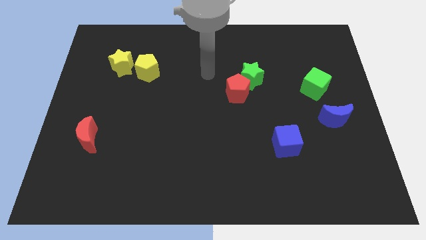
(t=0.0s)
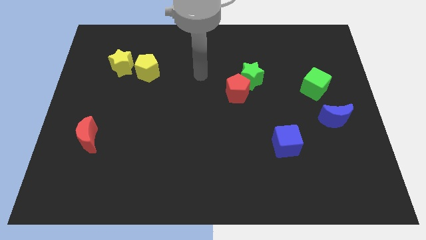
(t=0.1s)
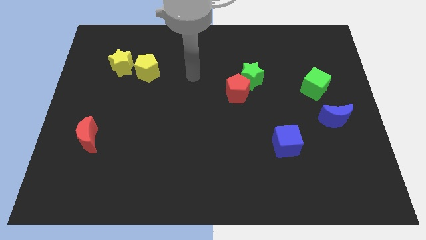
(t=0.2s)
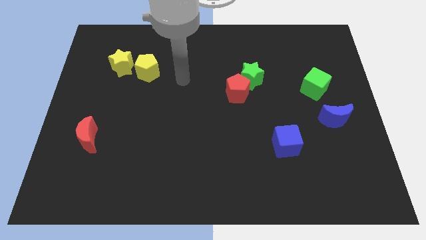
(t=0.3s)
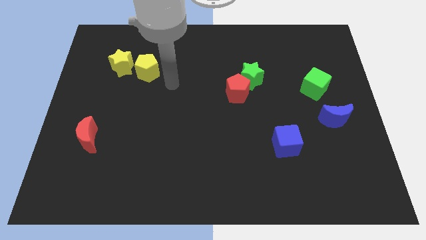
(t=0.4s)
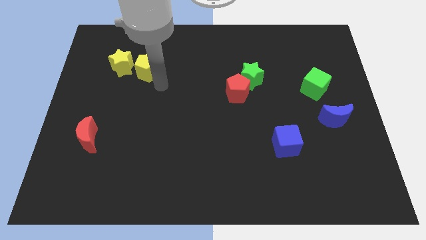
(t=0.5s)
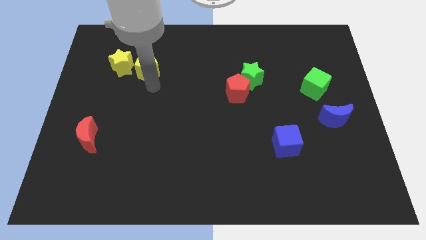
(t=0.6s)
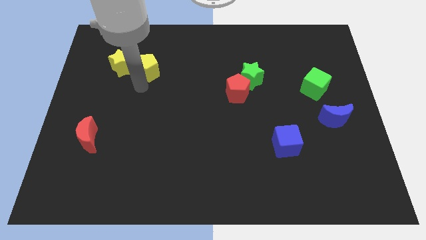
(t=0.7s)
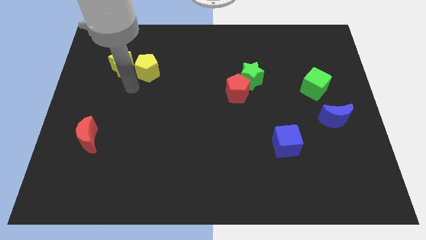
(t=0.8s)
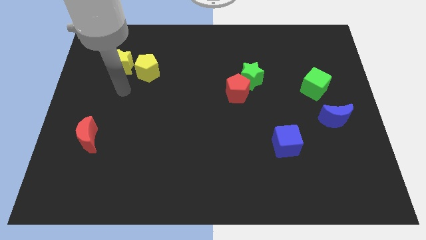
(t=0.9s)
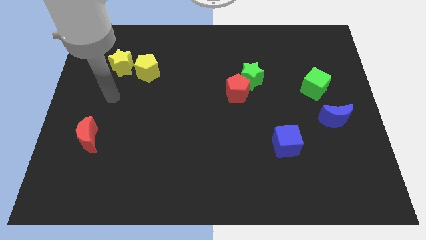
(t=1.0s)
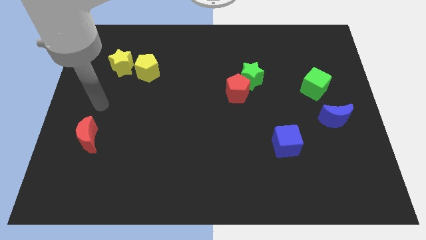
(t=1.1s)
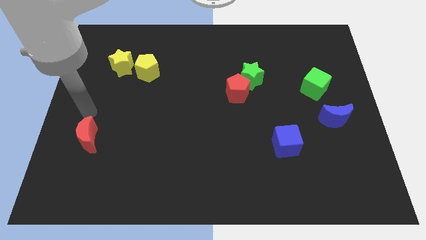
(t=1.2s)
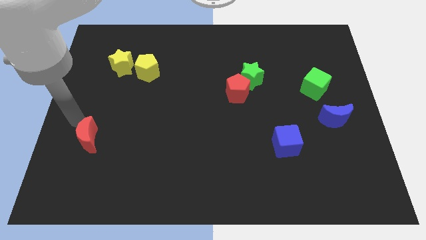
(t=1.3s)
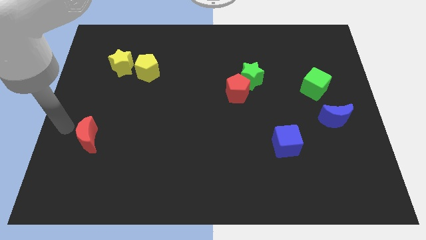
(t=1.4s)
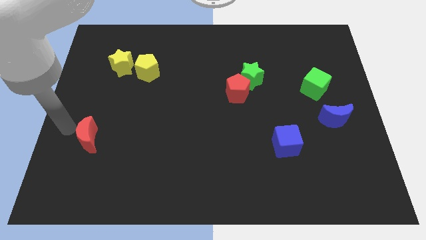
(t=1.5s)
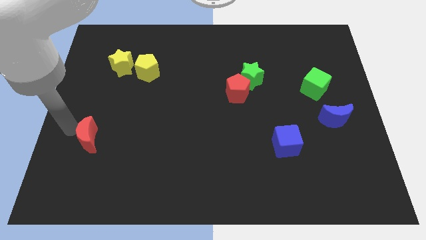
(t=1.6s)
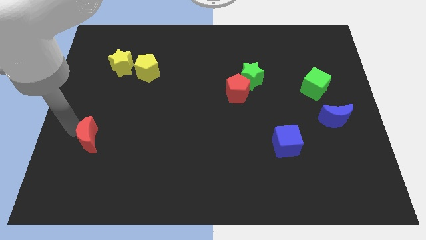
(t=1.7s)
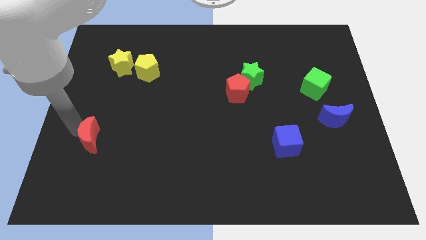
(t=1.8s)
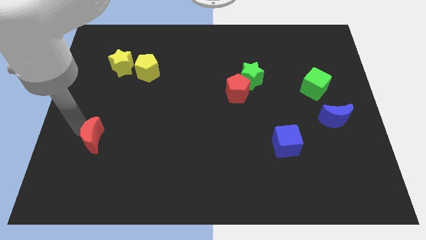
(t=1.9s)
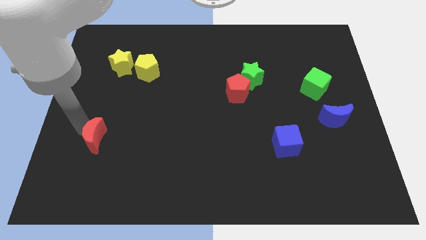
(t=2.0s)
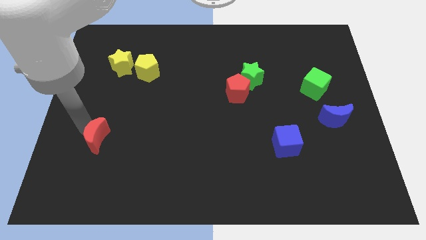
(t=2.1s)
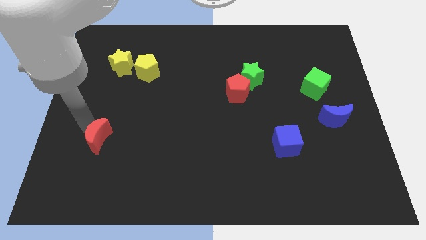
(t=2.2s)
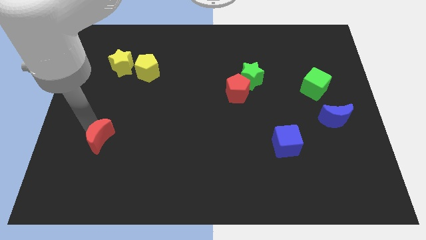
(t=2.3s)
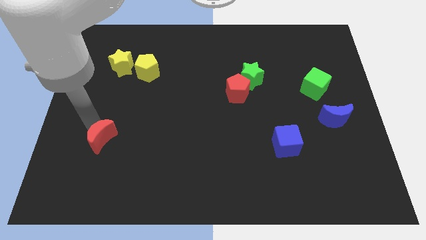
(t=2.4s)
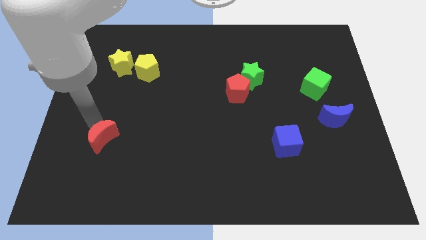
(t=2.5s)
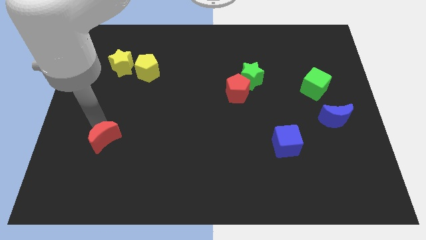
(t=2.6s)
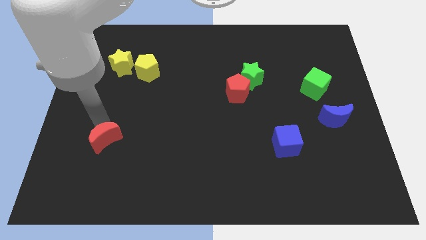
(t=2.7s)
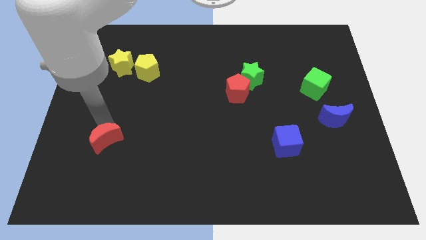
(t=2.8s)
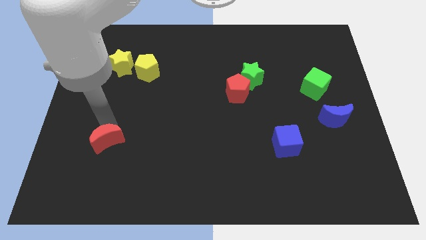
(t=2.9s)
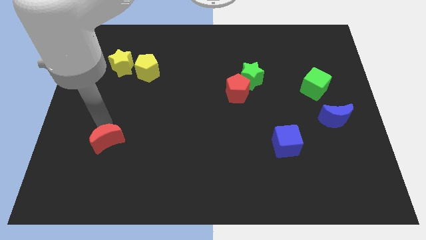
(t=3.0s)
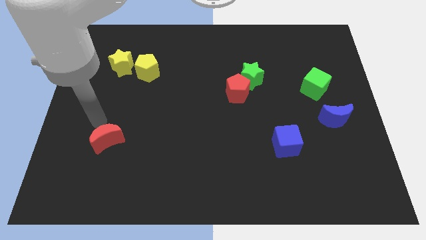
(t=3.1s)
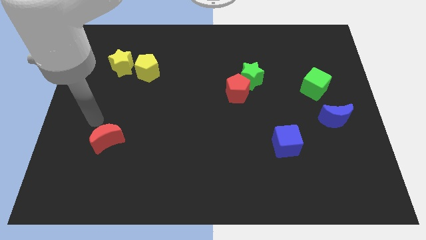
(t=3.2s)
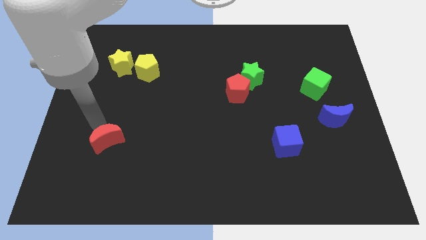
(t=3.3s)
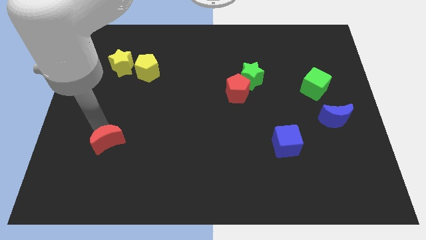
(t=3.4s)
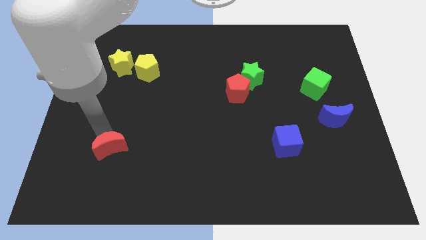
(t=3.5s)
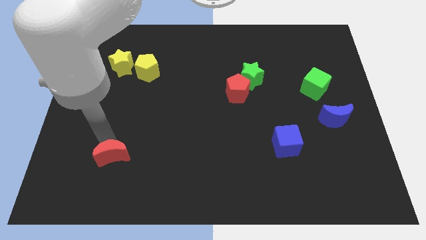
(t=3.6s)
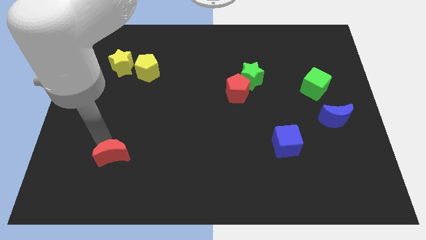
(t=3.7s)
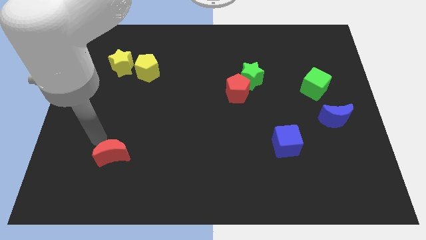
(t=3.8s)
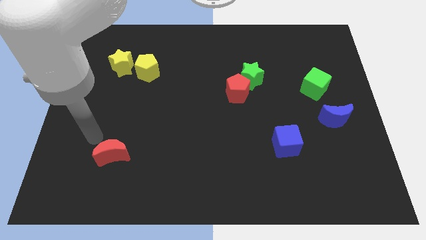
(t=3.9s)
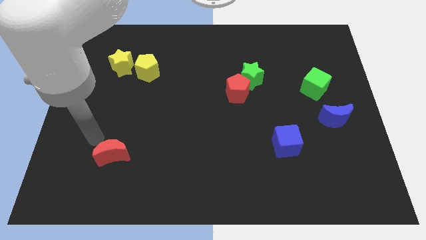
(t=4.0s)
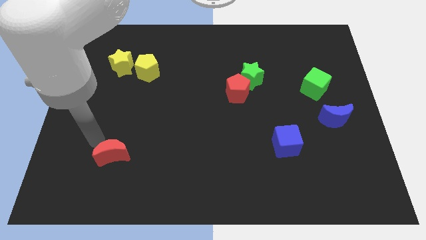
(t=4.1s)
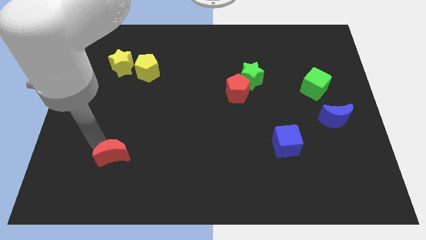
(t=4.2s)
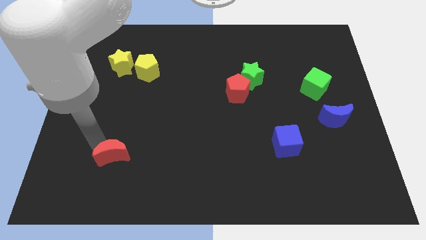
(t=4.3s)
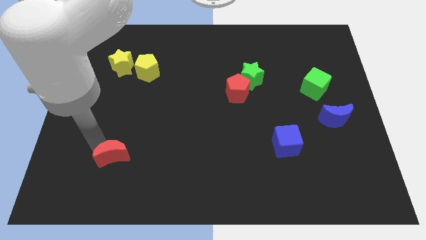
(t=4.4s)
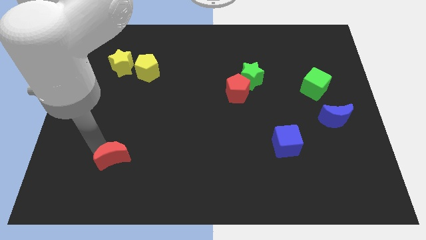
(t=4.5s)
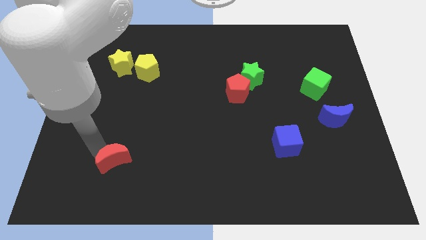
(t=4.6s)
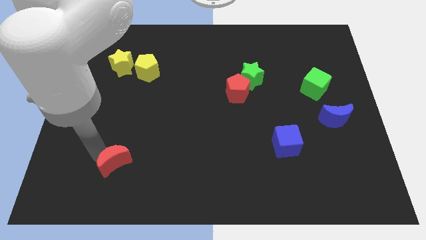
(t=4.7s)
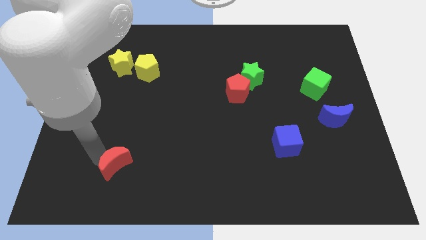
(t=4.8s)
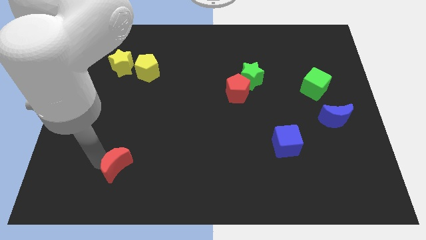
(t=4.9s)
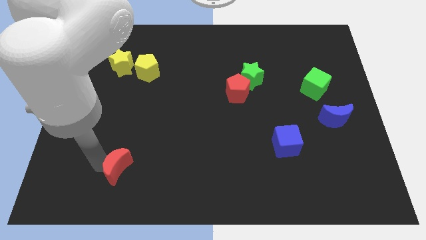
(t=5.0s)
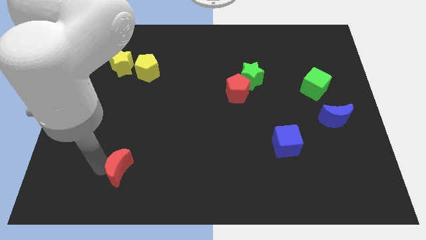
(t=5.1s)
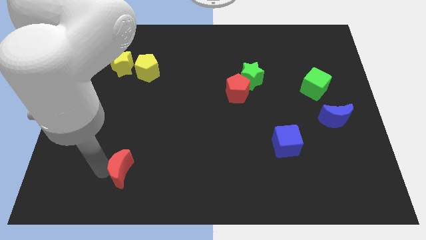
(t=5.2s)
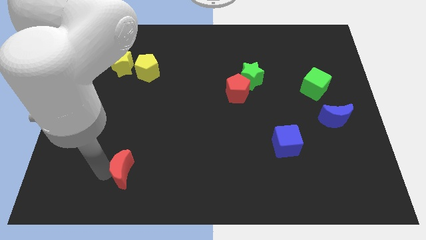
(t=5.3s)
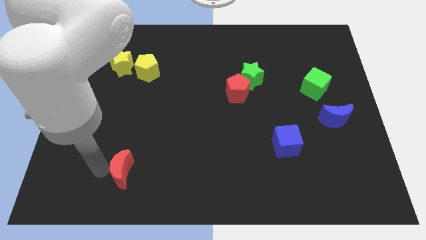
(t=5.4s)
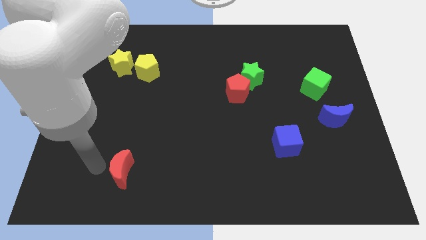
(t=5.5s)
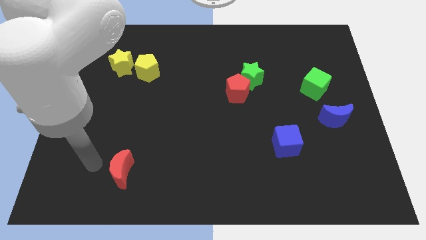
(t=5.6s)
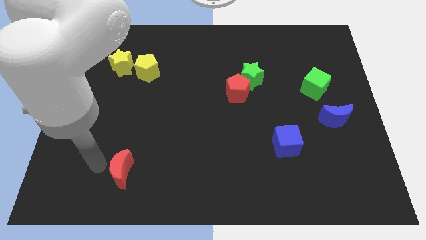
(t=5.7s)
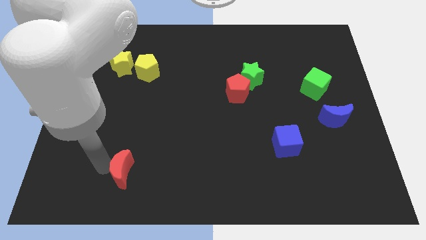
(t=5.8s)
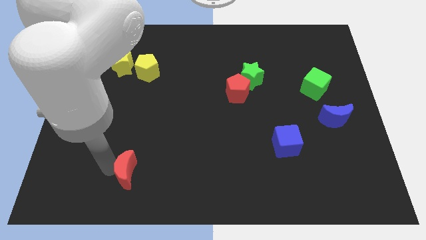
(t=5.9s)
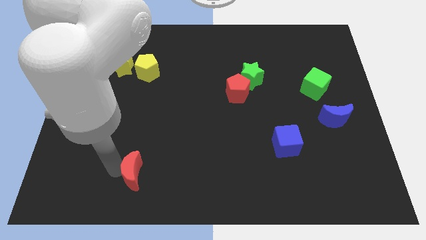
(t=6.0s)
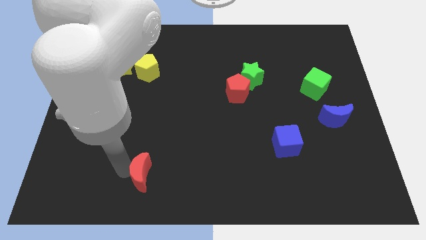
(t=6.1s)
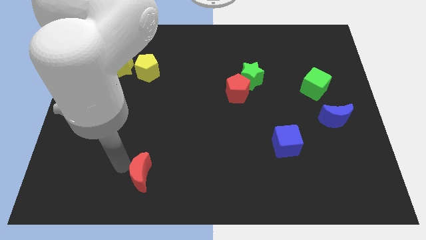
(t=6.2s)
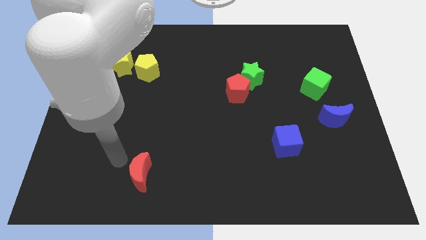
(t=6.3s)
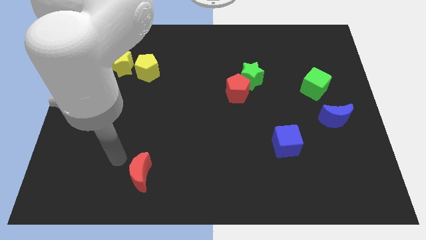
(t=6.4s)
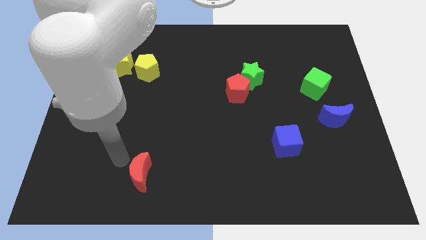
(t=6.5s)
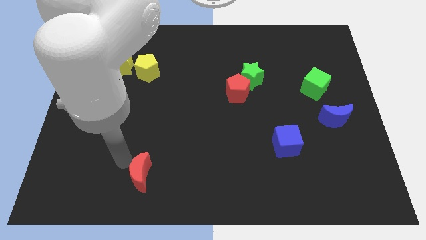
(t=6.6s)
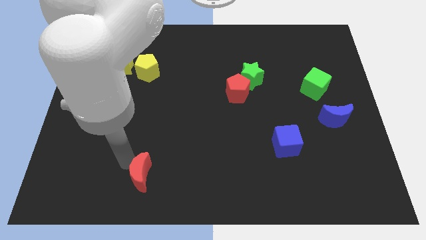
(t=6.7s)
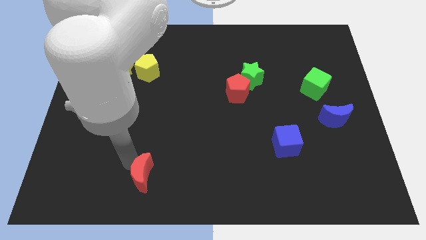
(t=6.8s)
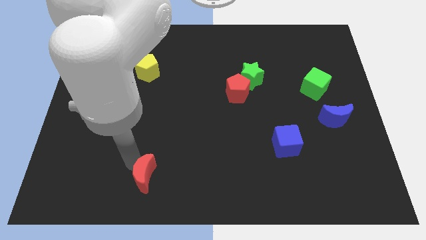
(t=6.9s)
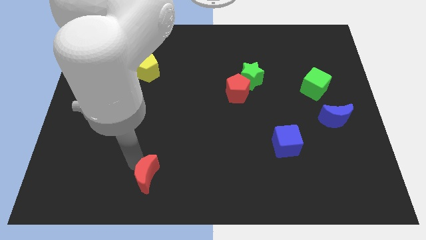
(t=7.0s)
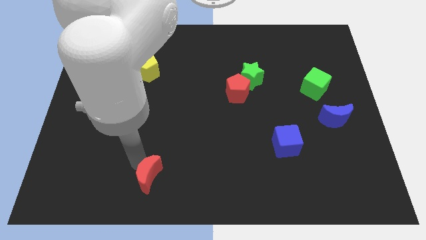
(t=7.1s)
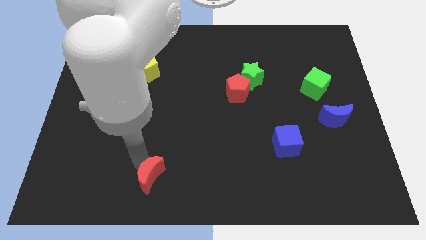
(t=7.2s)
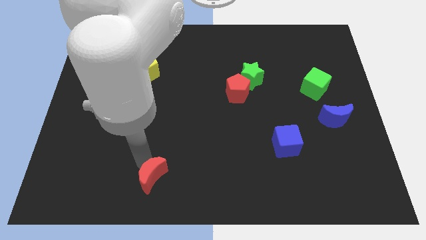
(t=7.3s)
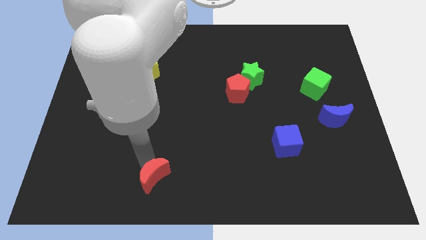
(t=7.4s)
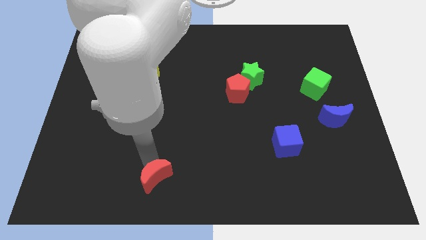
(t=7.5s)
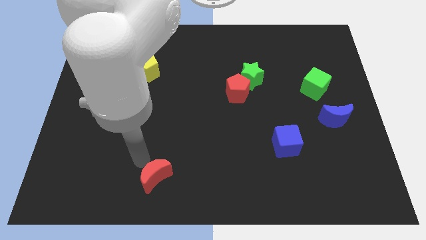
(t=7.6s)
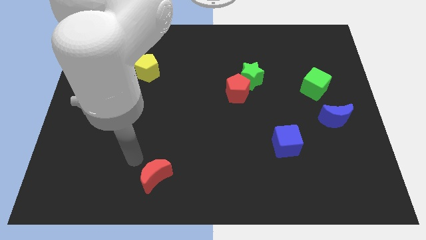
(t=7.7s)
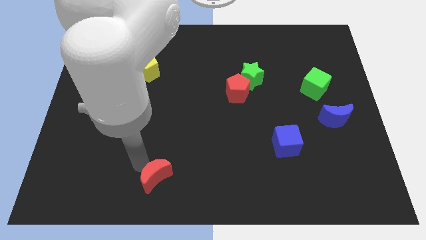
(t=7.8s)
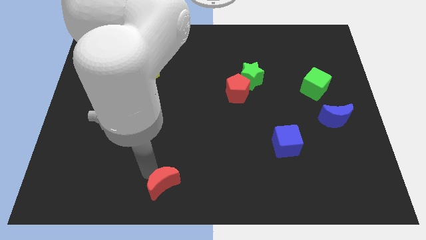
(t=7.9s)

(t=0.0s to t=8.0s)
move the red moon to the bottom
